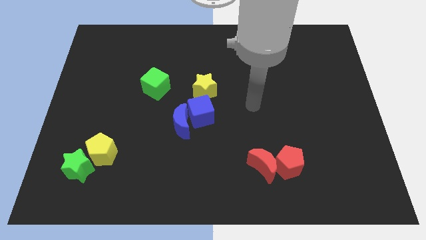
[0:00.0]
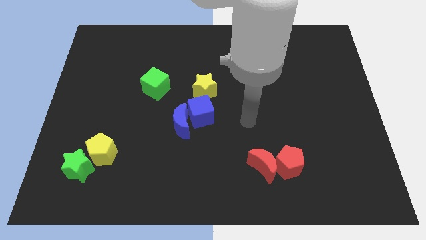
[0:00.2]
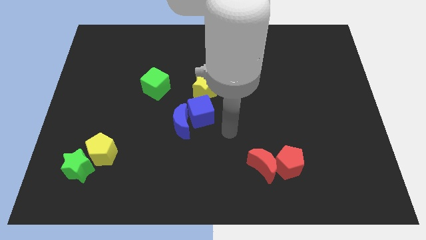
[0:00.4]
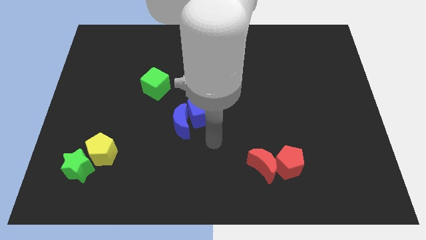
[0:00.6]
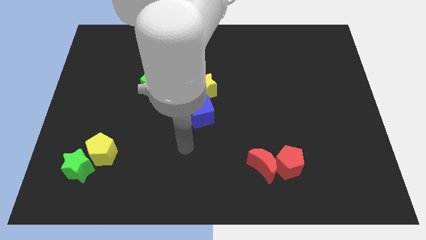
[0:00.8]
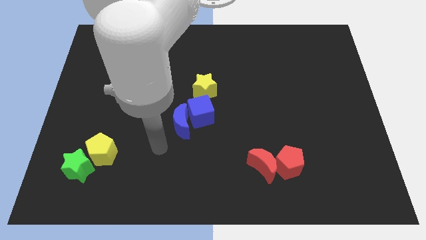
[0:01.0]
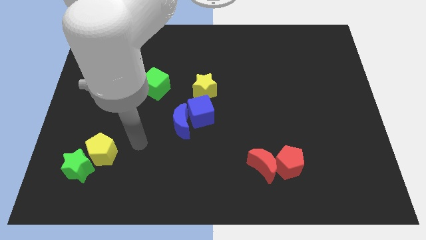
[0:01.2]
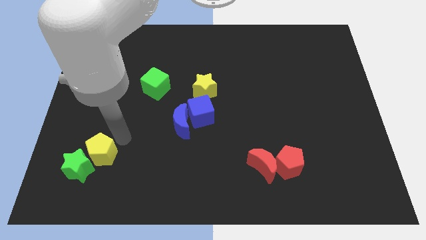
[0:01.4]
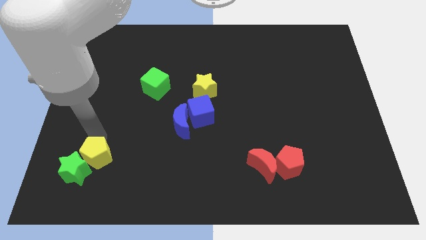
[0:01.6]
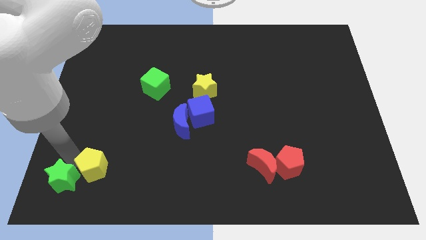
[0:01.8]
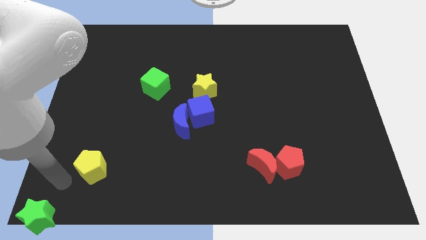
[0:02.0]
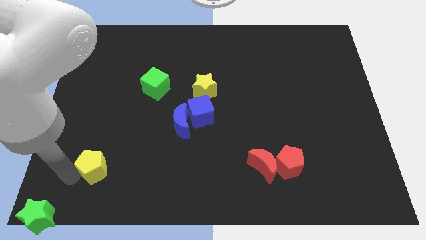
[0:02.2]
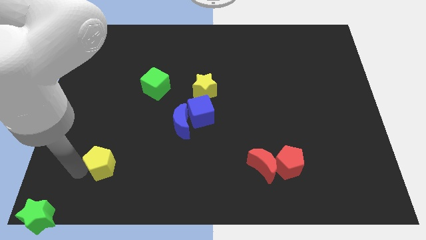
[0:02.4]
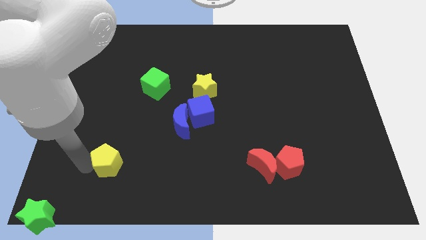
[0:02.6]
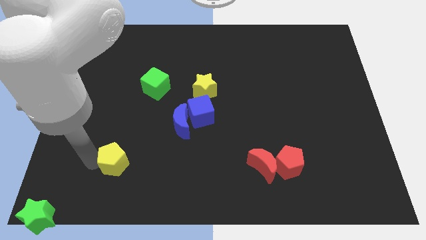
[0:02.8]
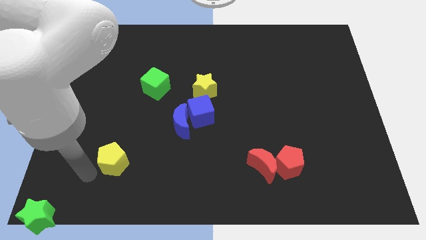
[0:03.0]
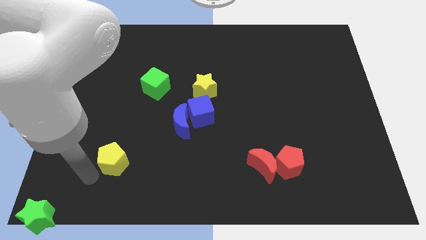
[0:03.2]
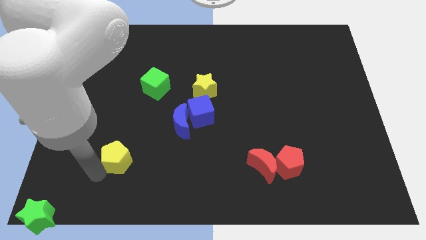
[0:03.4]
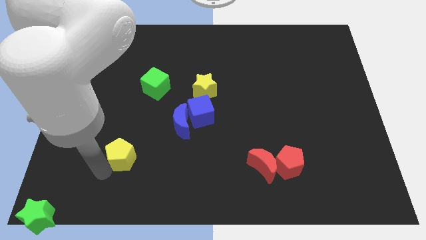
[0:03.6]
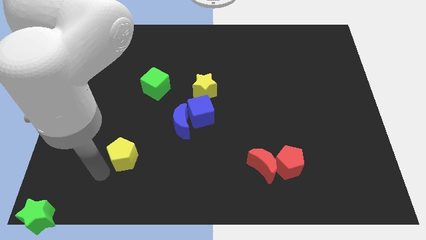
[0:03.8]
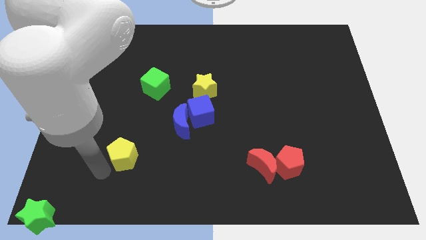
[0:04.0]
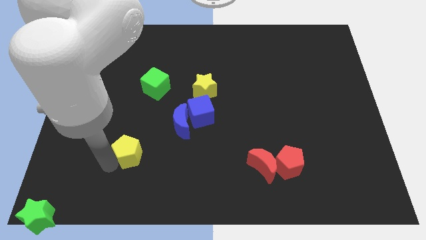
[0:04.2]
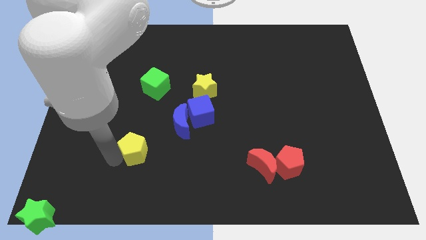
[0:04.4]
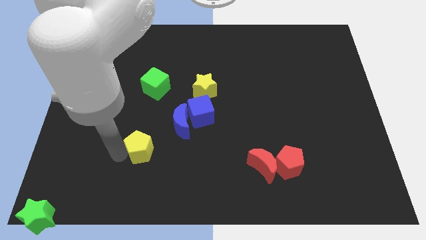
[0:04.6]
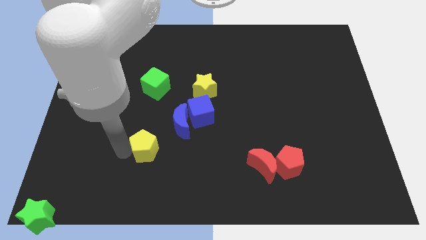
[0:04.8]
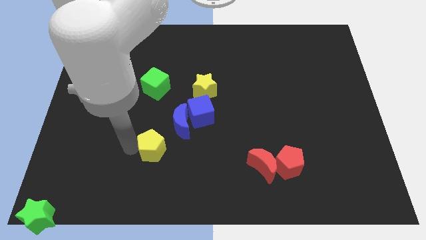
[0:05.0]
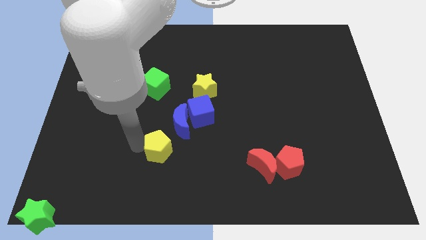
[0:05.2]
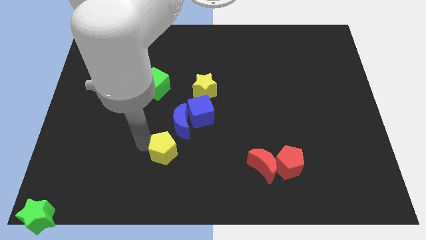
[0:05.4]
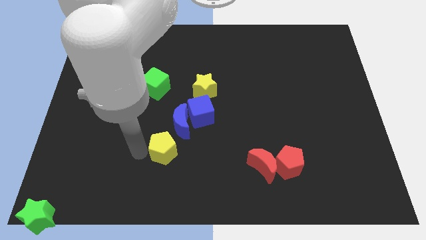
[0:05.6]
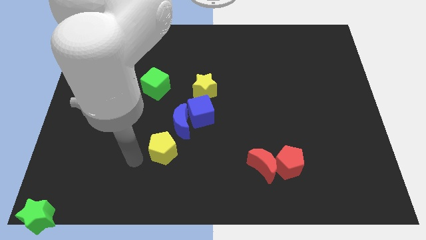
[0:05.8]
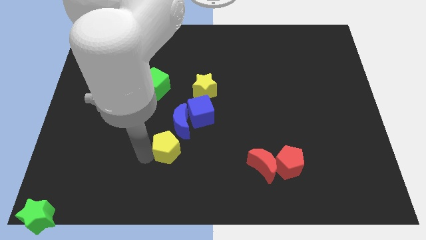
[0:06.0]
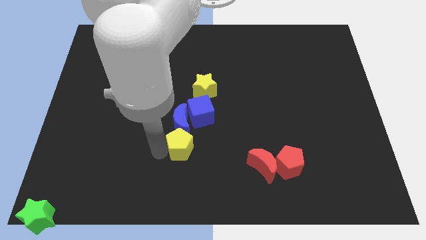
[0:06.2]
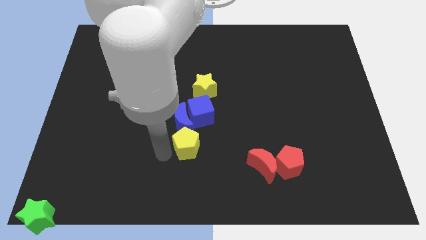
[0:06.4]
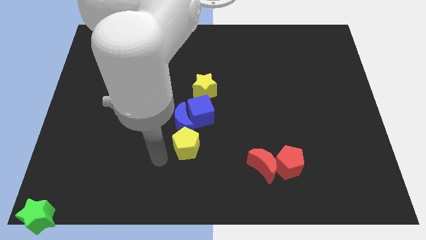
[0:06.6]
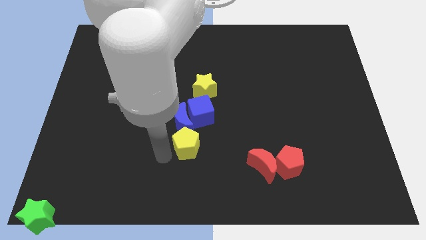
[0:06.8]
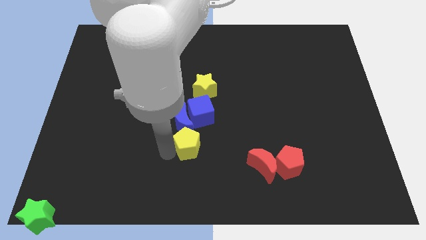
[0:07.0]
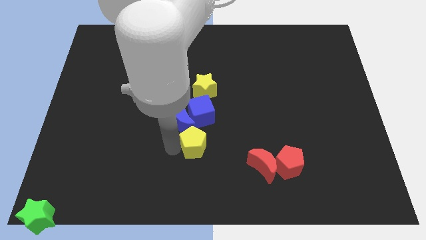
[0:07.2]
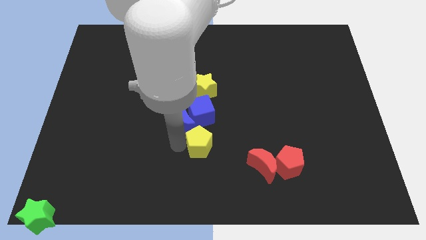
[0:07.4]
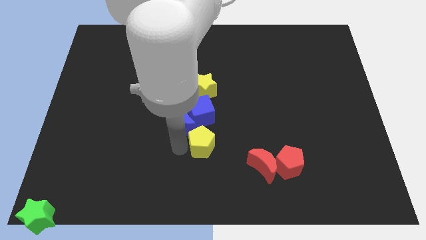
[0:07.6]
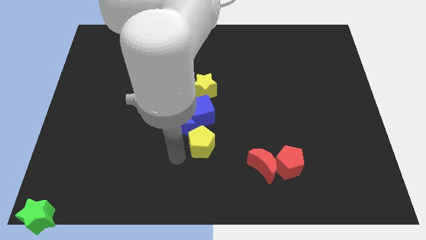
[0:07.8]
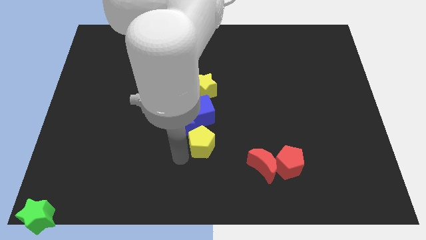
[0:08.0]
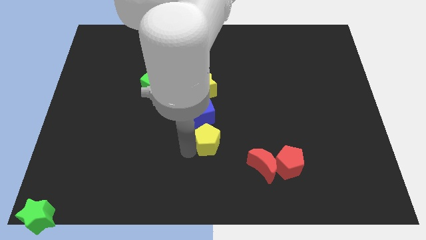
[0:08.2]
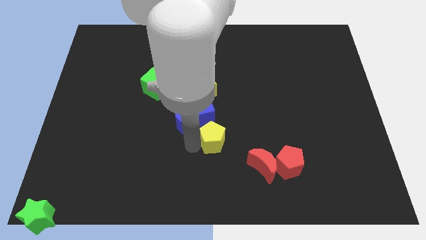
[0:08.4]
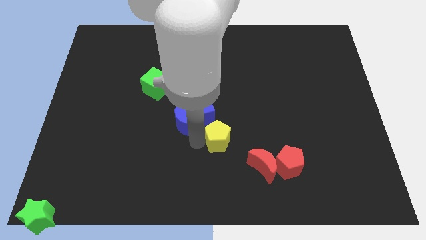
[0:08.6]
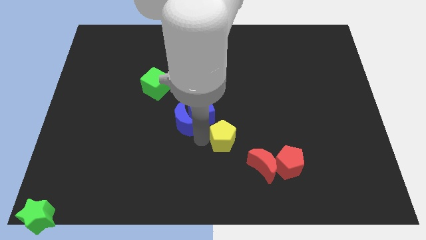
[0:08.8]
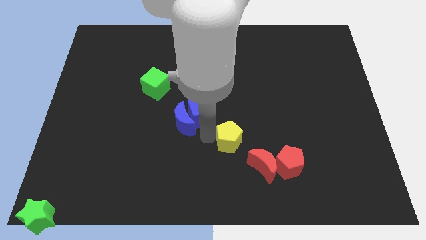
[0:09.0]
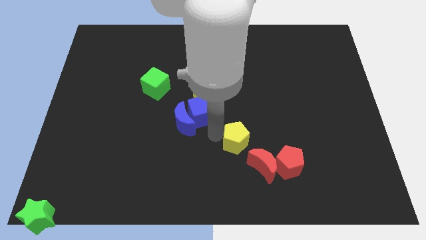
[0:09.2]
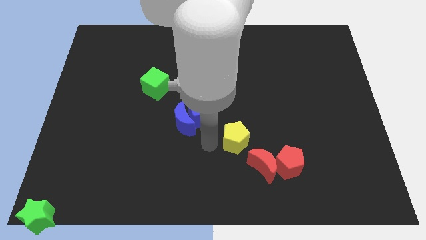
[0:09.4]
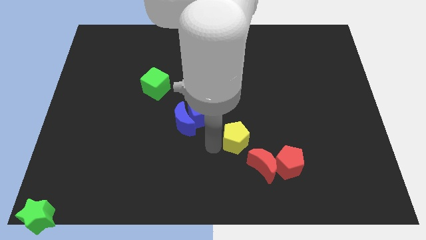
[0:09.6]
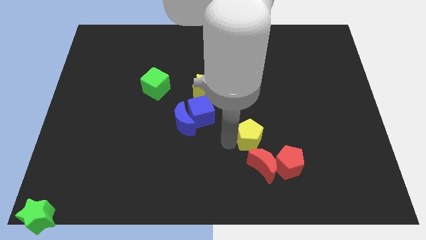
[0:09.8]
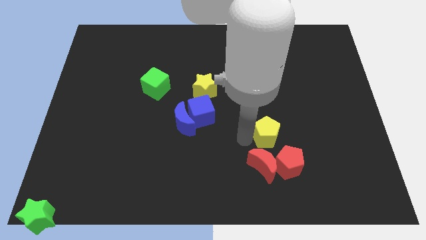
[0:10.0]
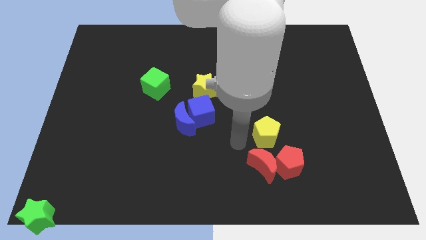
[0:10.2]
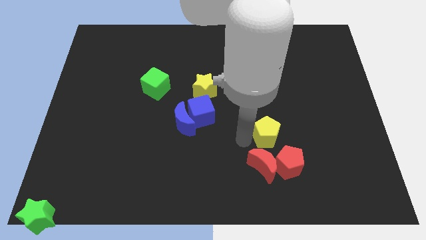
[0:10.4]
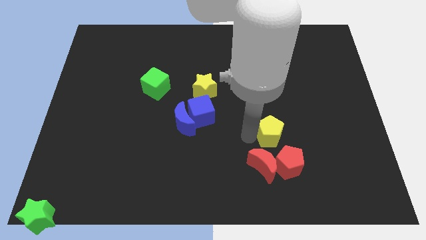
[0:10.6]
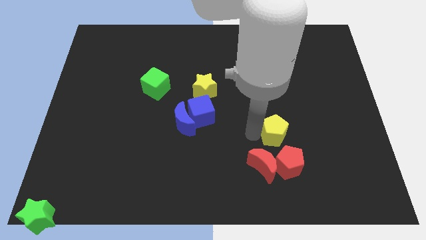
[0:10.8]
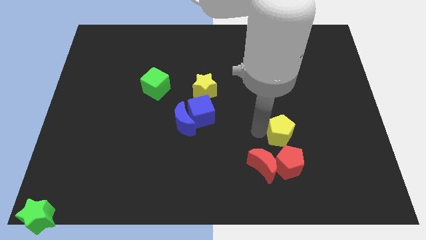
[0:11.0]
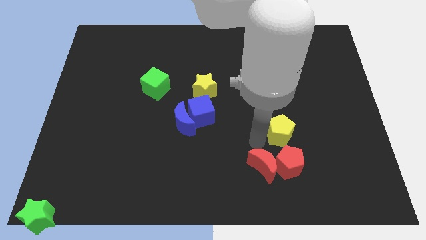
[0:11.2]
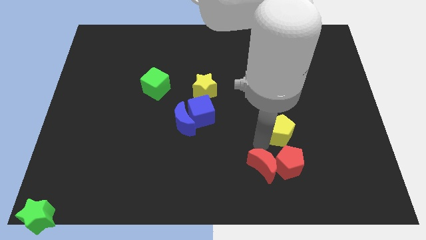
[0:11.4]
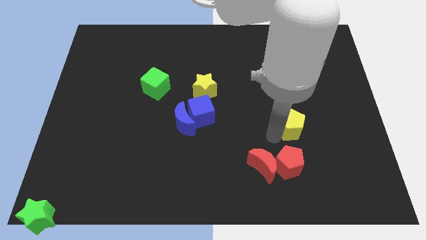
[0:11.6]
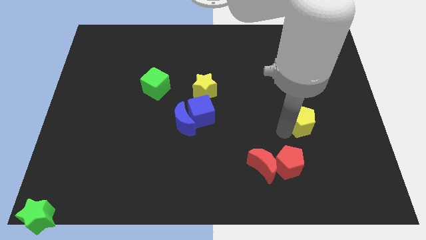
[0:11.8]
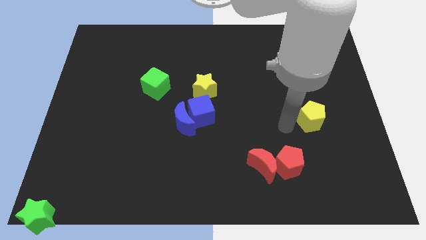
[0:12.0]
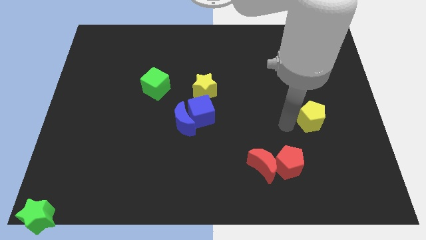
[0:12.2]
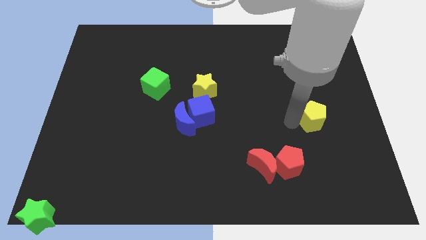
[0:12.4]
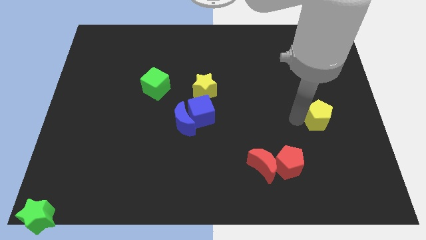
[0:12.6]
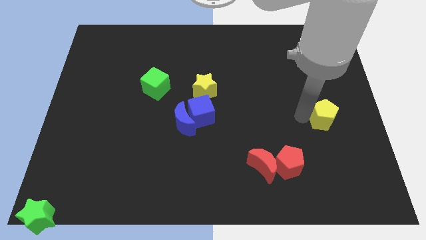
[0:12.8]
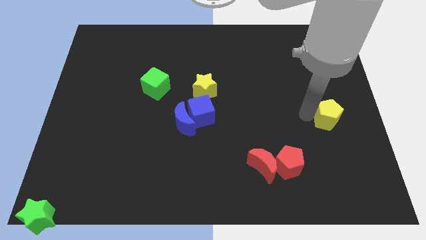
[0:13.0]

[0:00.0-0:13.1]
move the yellow pentagon to the right side
